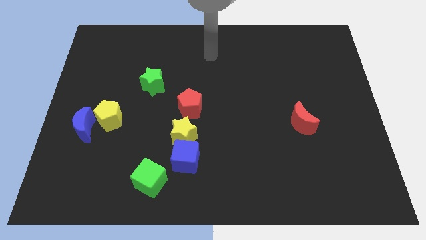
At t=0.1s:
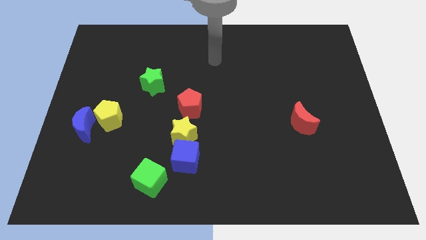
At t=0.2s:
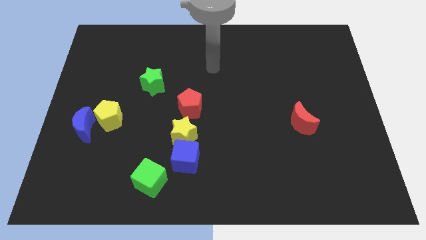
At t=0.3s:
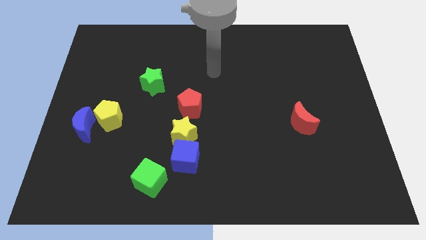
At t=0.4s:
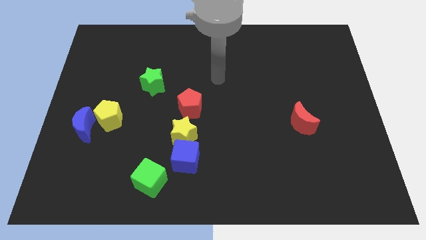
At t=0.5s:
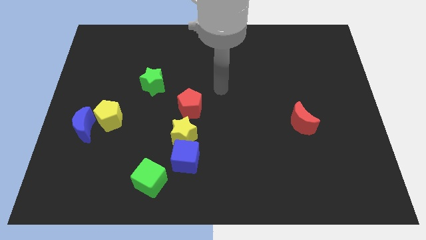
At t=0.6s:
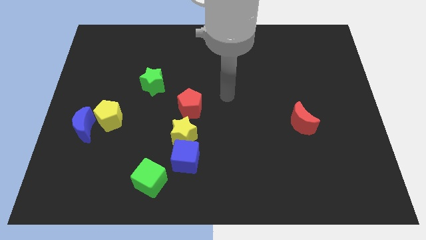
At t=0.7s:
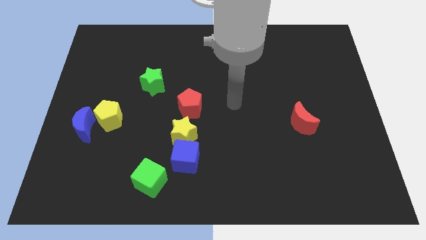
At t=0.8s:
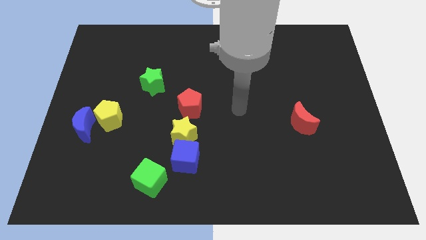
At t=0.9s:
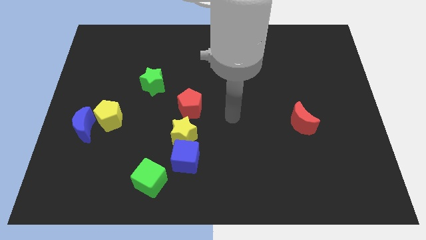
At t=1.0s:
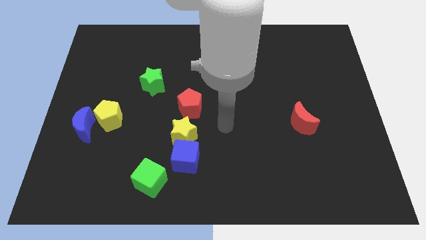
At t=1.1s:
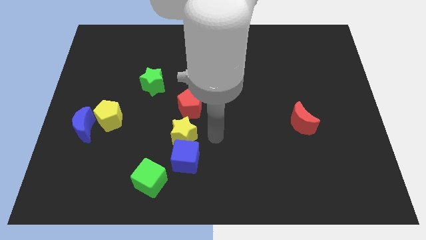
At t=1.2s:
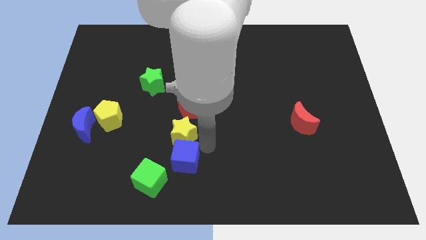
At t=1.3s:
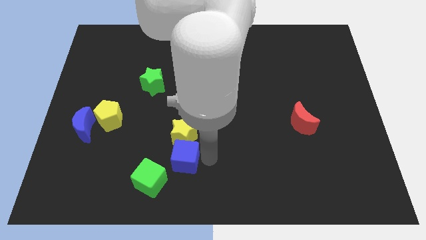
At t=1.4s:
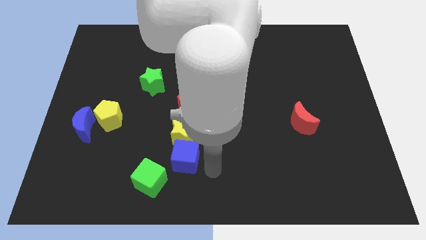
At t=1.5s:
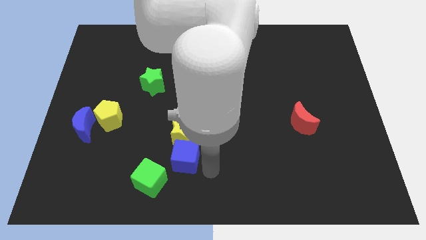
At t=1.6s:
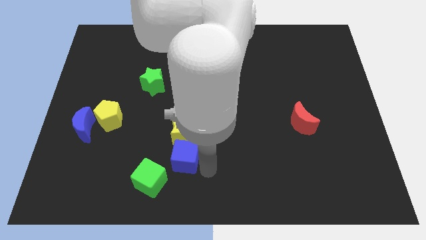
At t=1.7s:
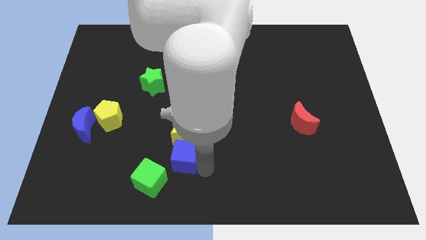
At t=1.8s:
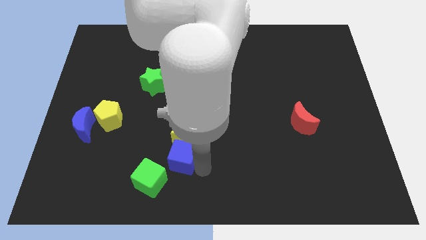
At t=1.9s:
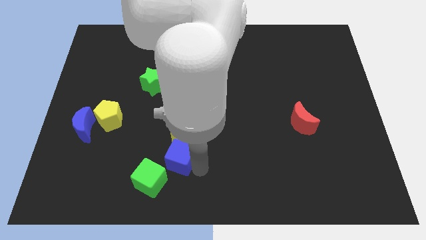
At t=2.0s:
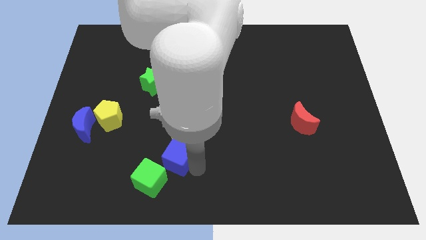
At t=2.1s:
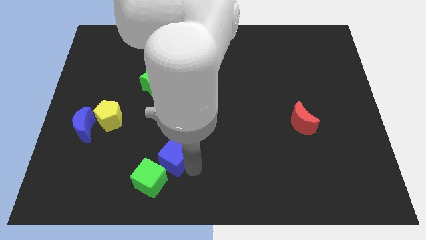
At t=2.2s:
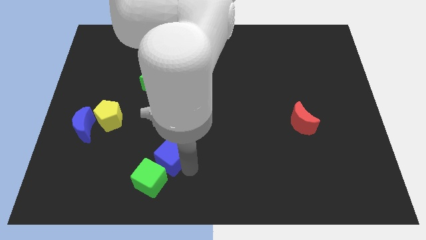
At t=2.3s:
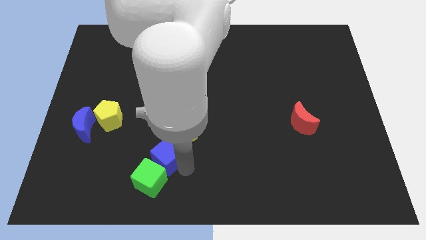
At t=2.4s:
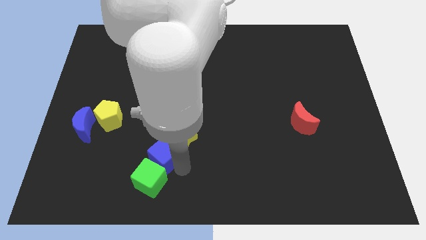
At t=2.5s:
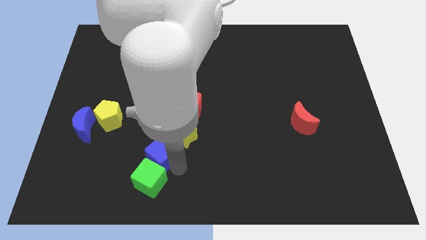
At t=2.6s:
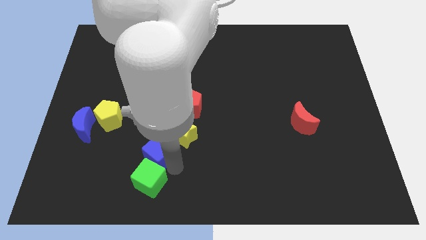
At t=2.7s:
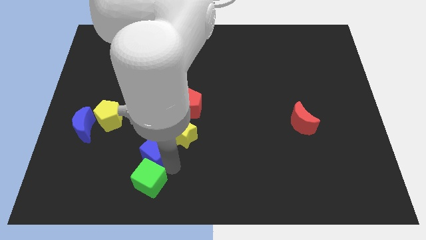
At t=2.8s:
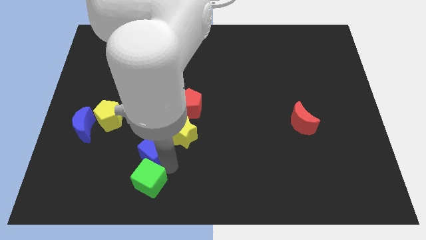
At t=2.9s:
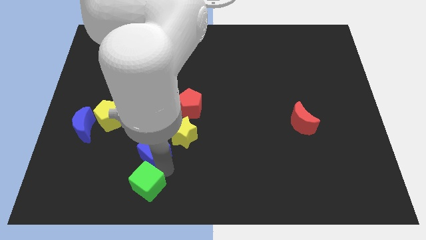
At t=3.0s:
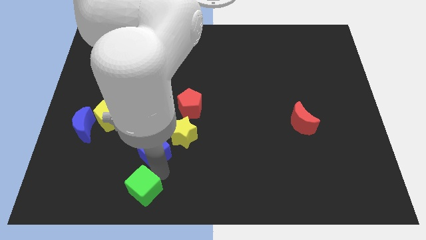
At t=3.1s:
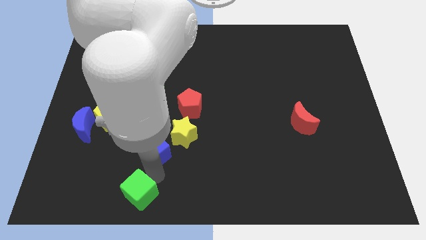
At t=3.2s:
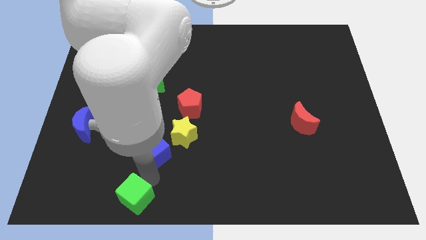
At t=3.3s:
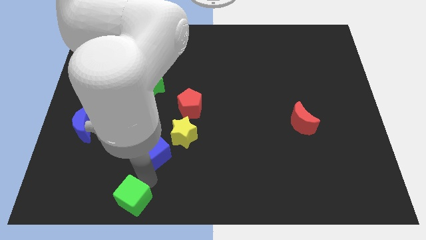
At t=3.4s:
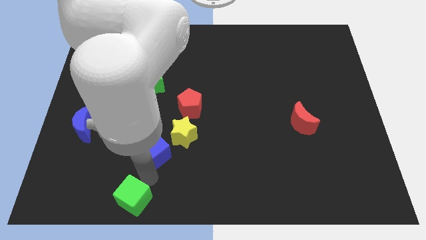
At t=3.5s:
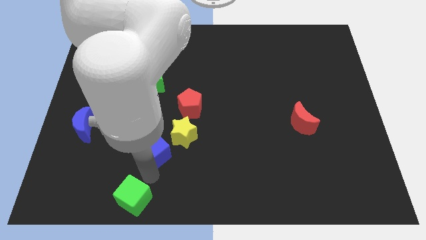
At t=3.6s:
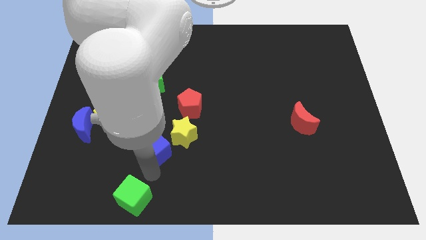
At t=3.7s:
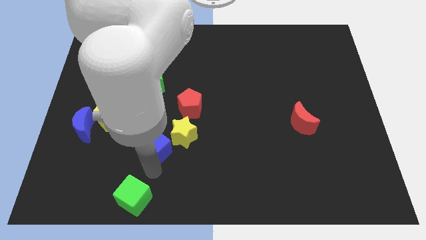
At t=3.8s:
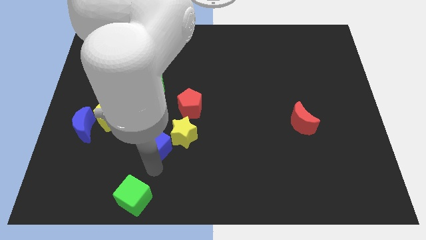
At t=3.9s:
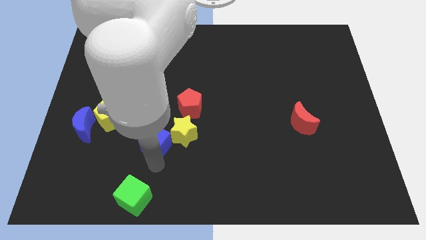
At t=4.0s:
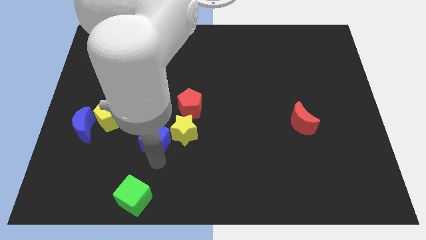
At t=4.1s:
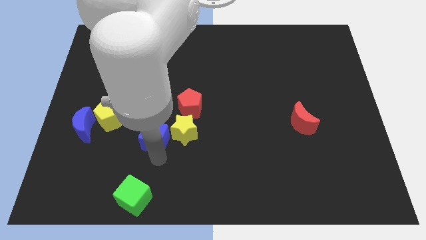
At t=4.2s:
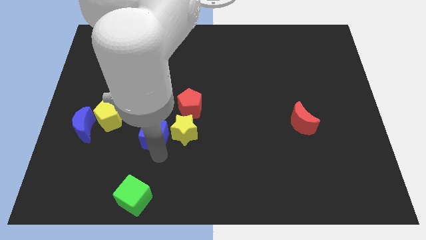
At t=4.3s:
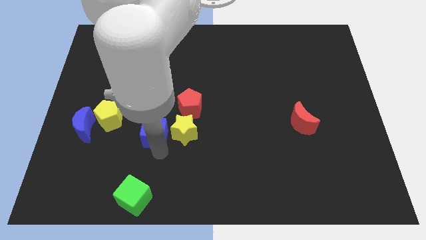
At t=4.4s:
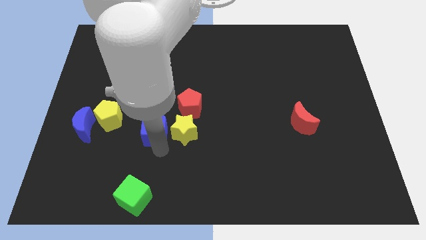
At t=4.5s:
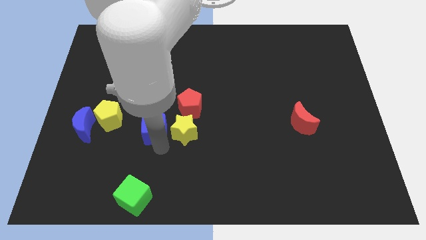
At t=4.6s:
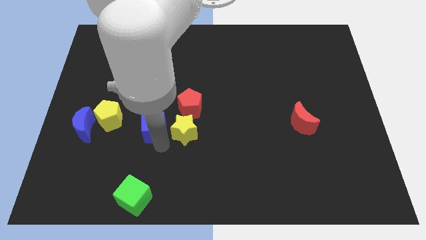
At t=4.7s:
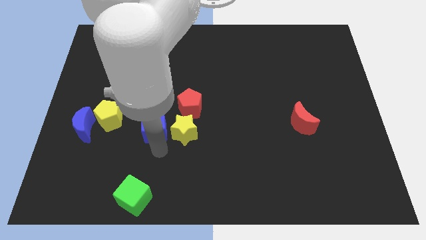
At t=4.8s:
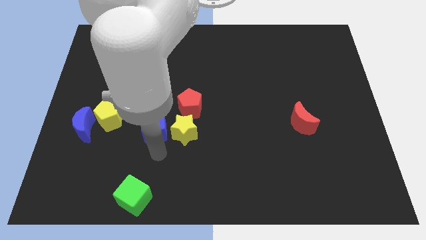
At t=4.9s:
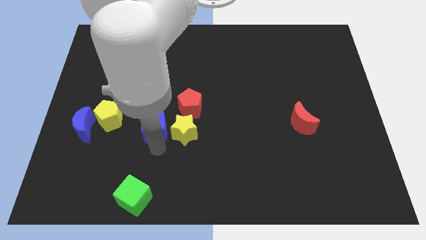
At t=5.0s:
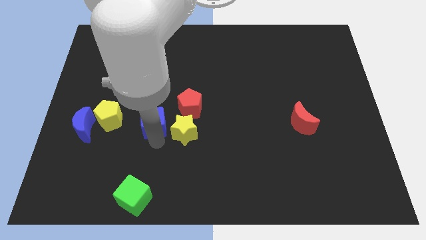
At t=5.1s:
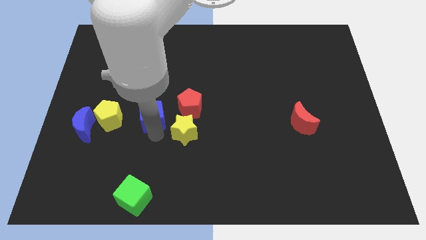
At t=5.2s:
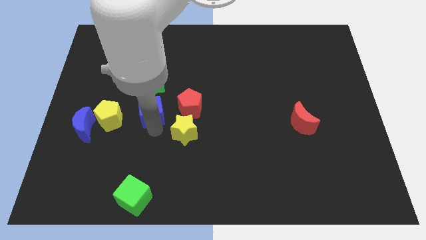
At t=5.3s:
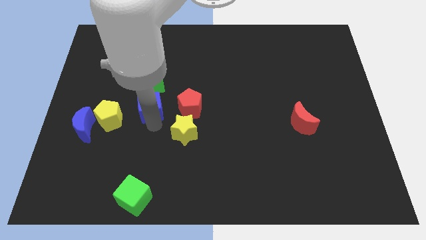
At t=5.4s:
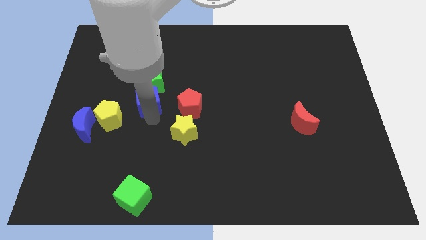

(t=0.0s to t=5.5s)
move the blue cube next to the green star

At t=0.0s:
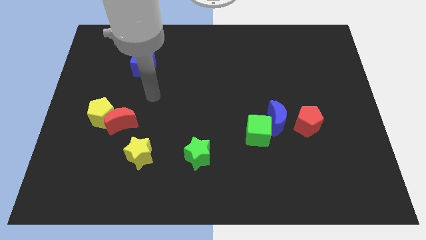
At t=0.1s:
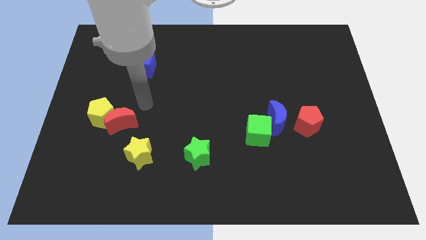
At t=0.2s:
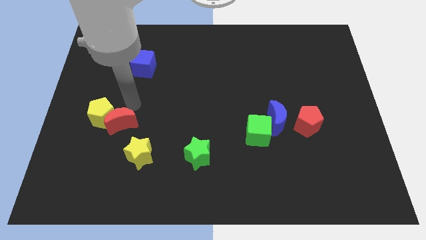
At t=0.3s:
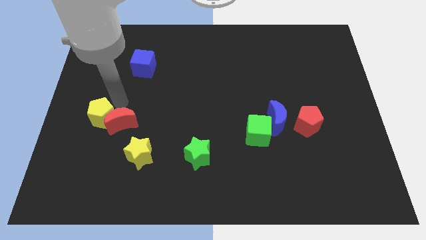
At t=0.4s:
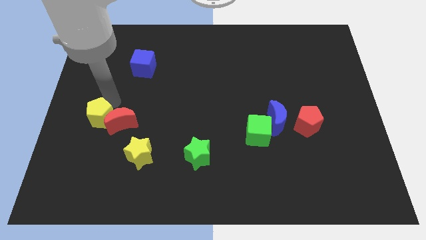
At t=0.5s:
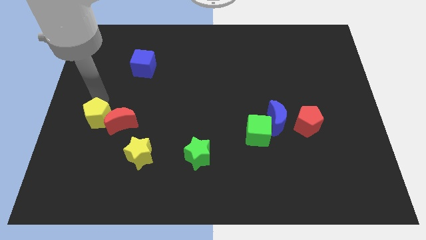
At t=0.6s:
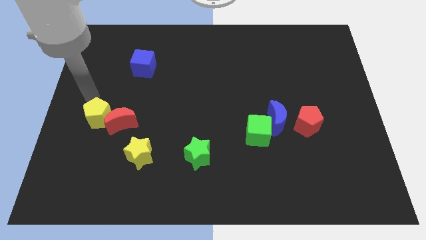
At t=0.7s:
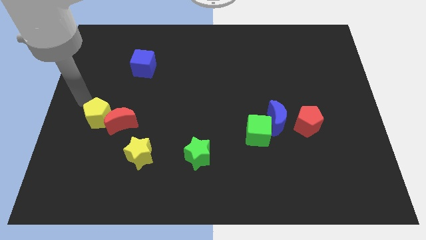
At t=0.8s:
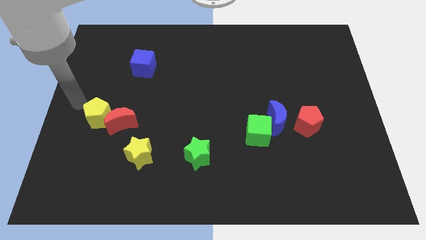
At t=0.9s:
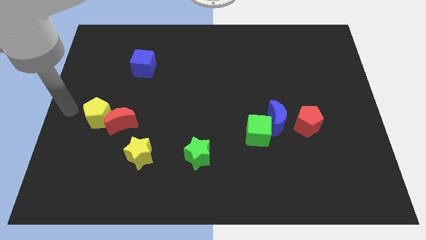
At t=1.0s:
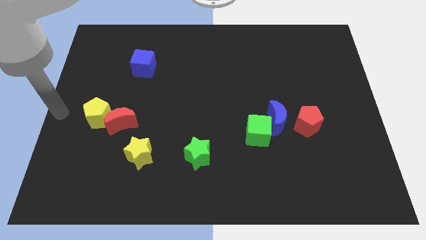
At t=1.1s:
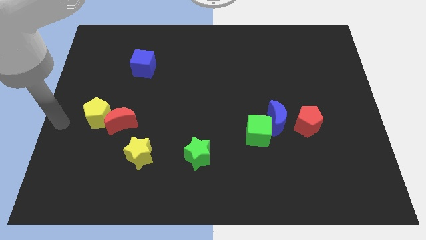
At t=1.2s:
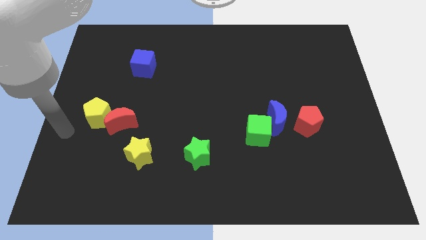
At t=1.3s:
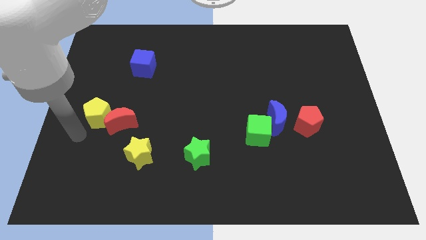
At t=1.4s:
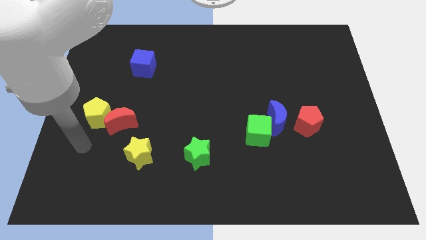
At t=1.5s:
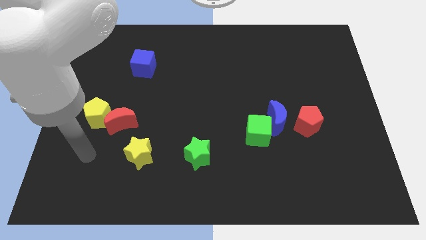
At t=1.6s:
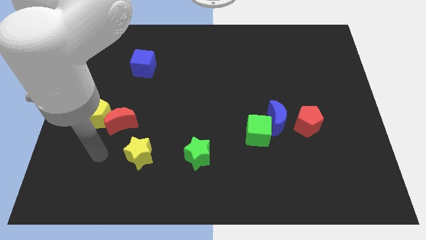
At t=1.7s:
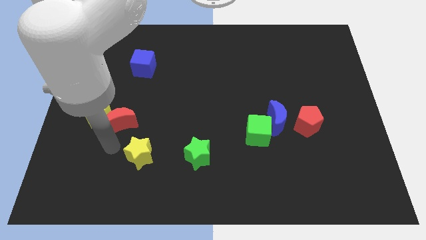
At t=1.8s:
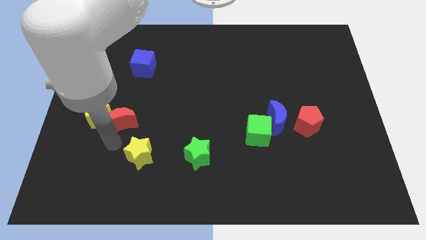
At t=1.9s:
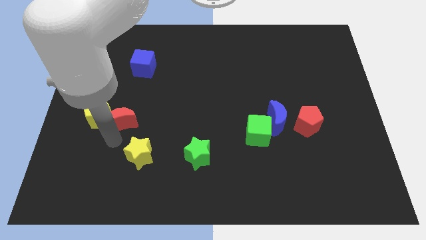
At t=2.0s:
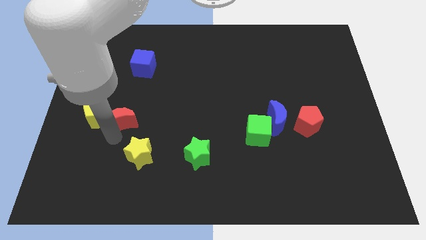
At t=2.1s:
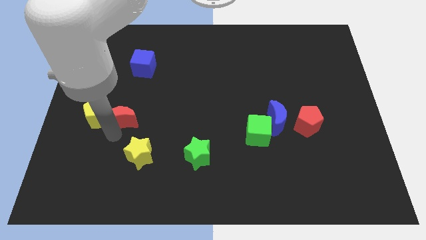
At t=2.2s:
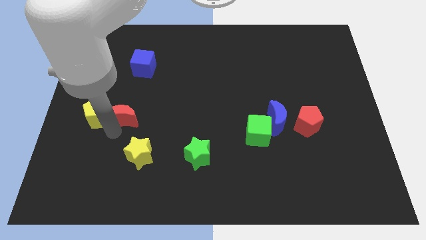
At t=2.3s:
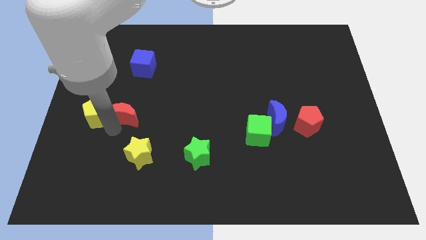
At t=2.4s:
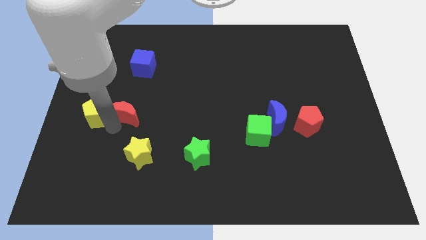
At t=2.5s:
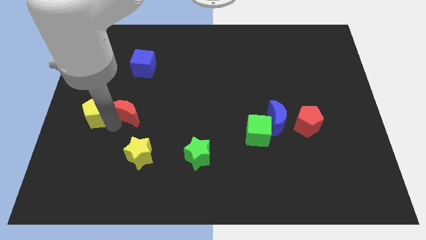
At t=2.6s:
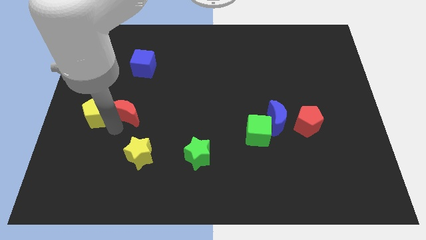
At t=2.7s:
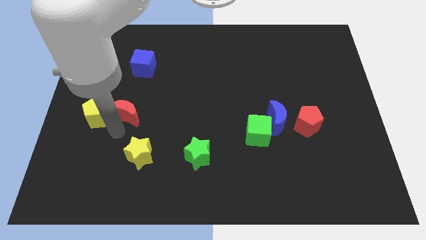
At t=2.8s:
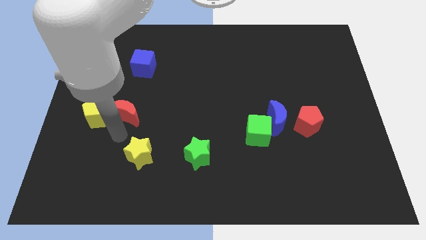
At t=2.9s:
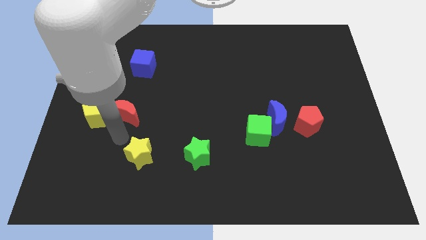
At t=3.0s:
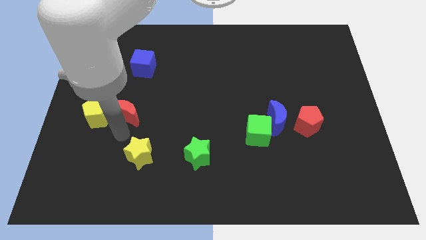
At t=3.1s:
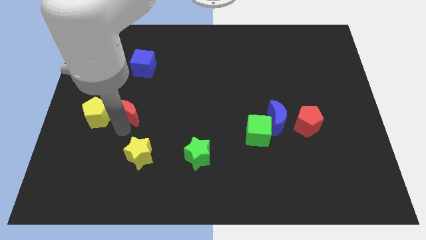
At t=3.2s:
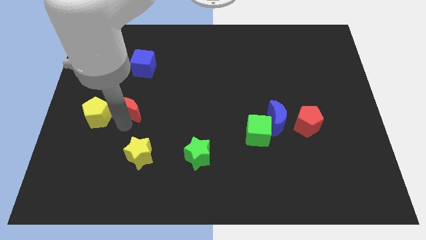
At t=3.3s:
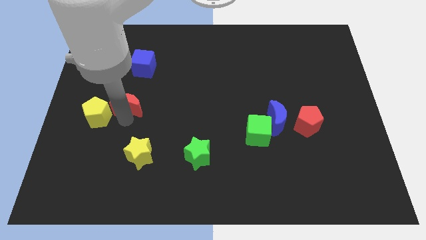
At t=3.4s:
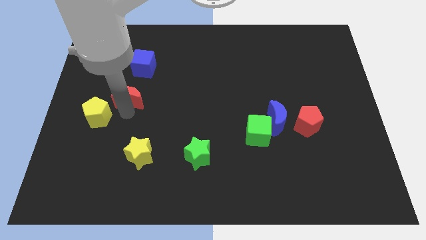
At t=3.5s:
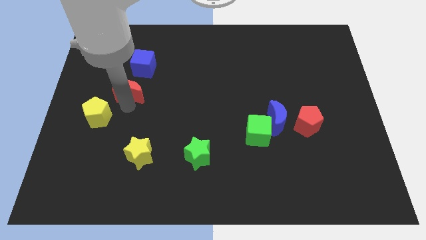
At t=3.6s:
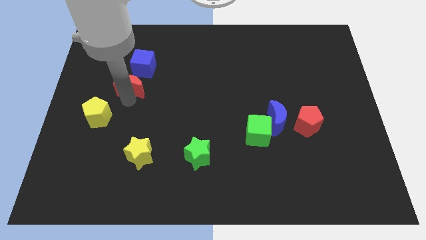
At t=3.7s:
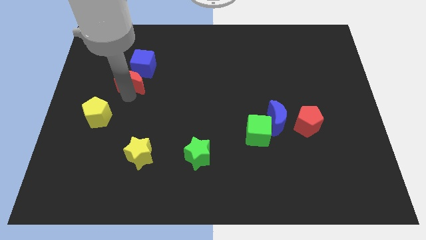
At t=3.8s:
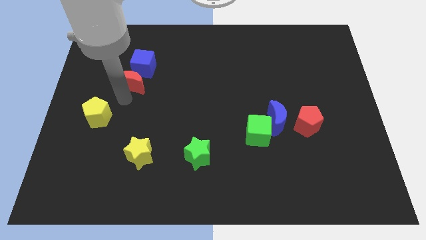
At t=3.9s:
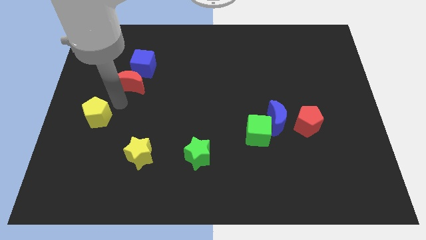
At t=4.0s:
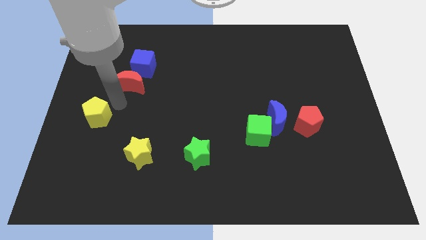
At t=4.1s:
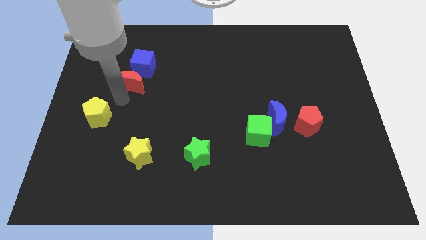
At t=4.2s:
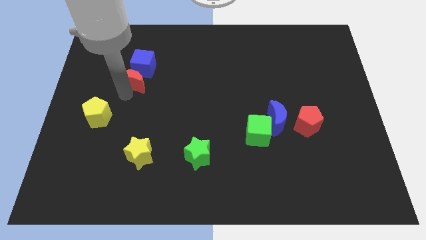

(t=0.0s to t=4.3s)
put the red moon close to the blue cube
